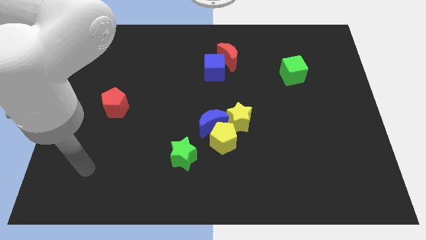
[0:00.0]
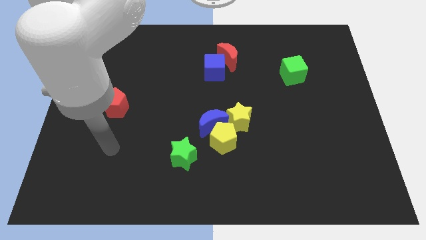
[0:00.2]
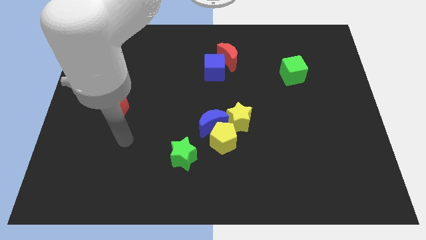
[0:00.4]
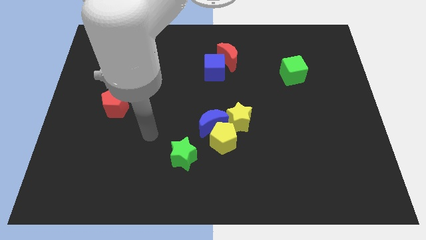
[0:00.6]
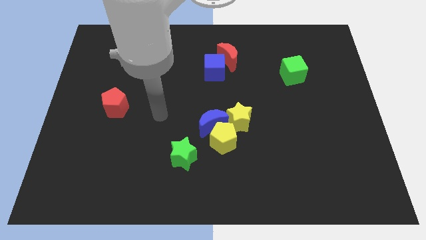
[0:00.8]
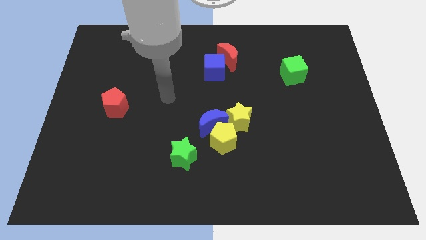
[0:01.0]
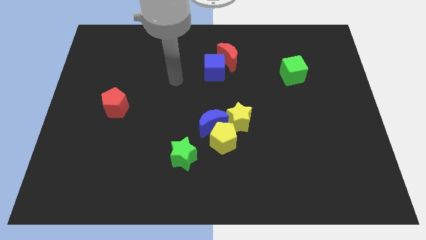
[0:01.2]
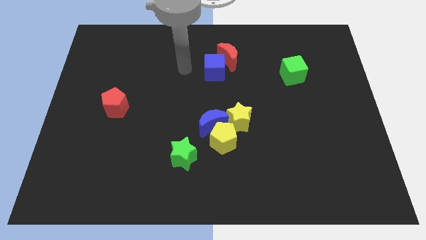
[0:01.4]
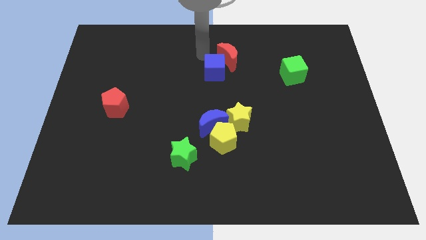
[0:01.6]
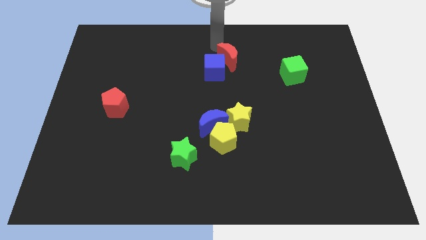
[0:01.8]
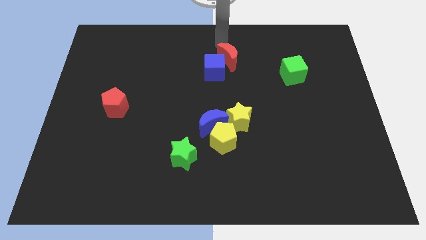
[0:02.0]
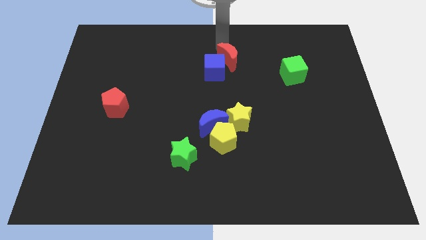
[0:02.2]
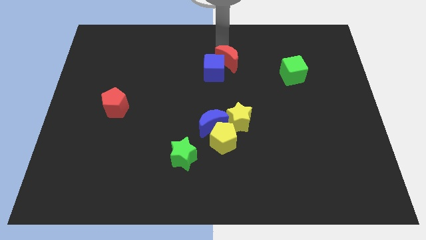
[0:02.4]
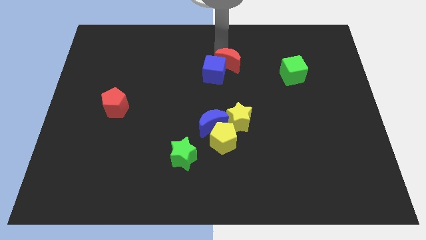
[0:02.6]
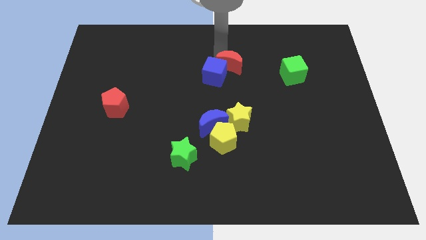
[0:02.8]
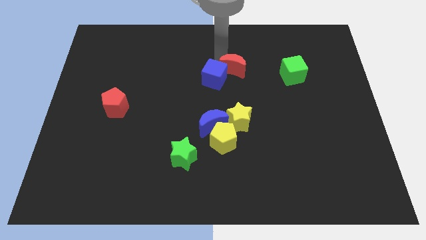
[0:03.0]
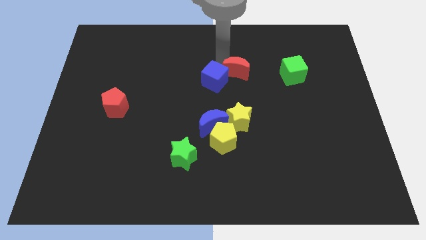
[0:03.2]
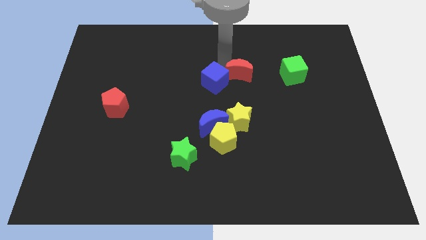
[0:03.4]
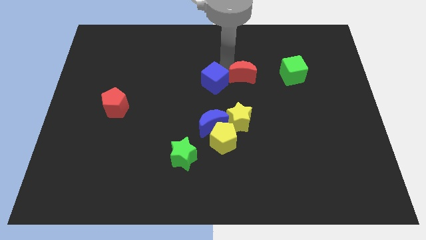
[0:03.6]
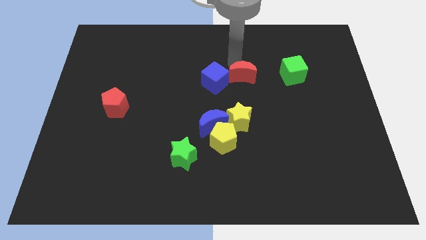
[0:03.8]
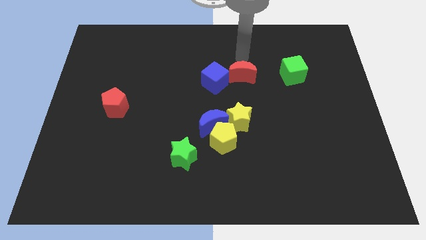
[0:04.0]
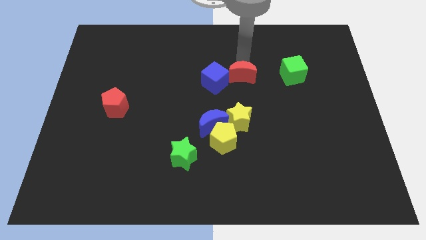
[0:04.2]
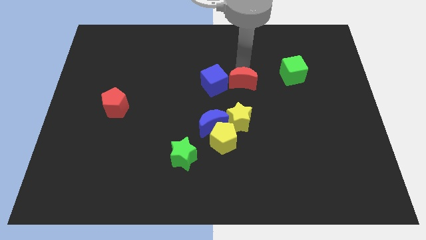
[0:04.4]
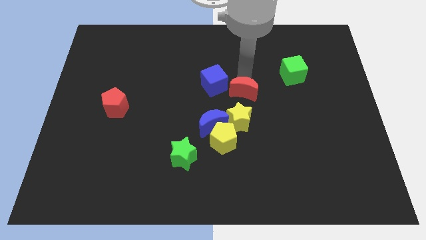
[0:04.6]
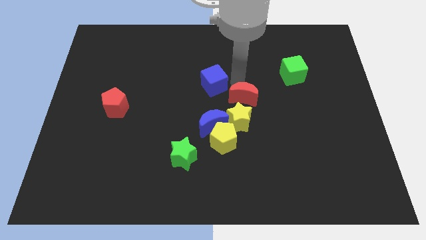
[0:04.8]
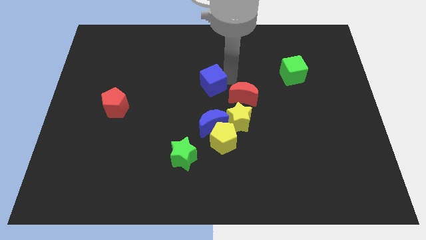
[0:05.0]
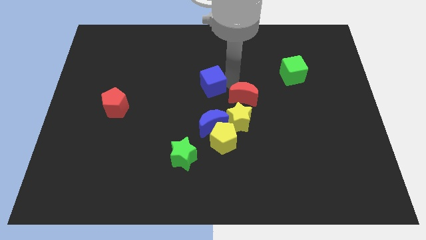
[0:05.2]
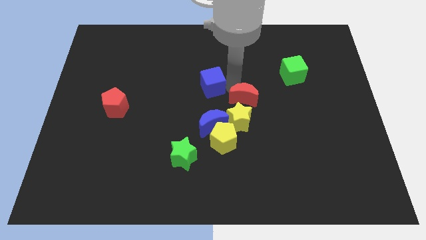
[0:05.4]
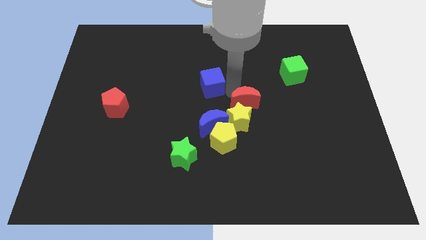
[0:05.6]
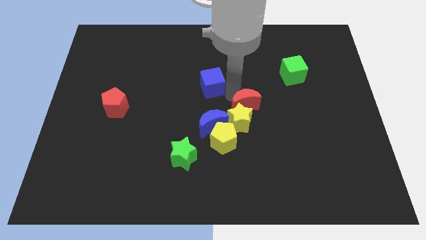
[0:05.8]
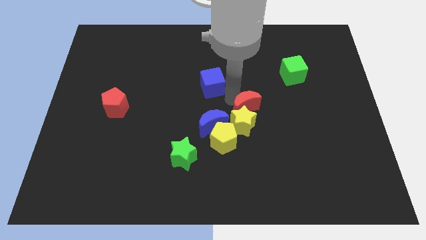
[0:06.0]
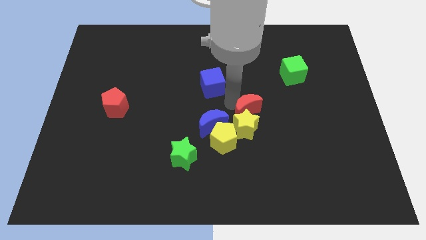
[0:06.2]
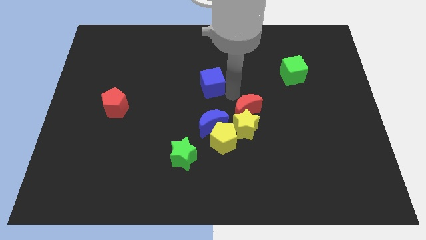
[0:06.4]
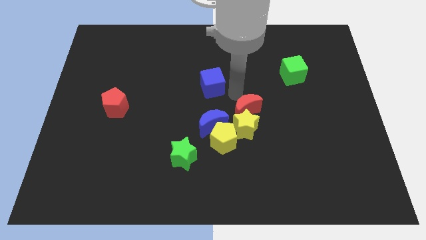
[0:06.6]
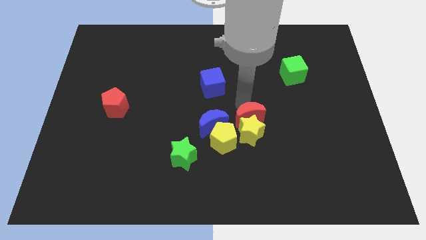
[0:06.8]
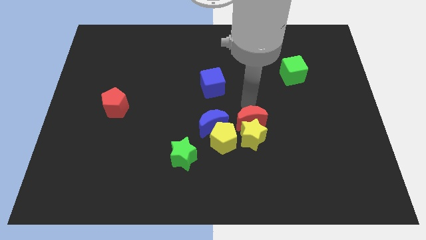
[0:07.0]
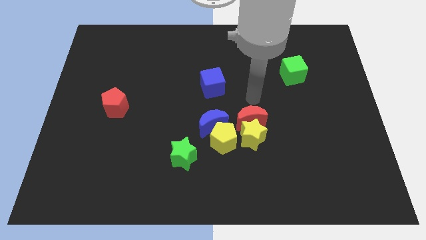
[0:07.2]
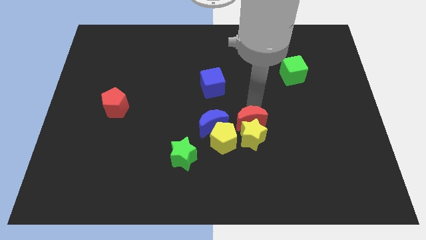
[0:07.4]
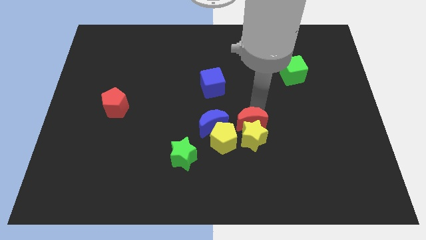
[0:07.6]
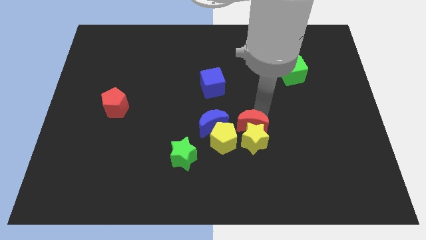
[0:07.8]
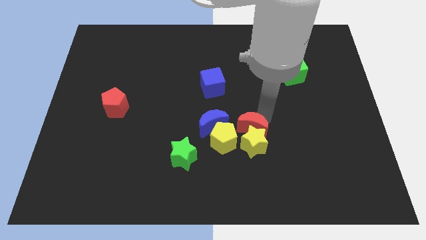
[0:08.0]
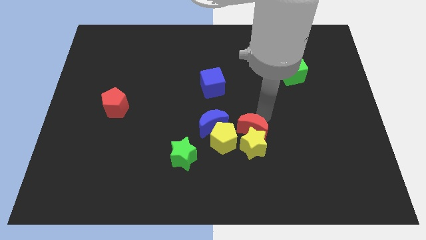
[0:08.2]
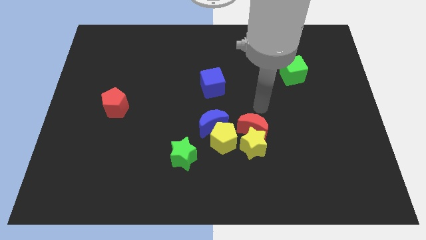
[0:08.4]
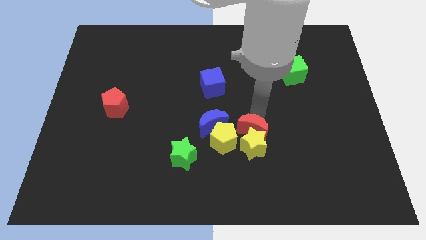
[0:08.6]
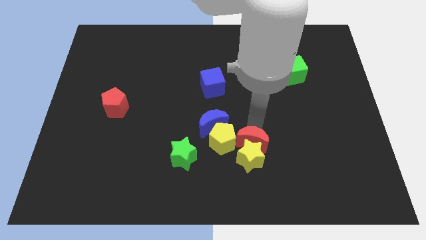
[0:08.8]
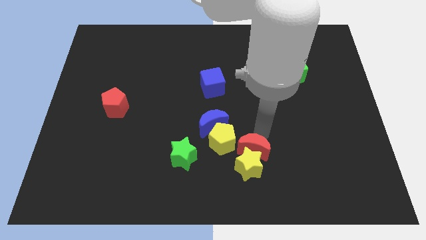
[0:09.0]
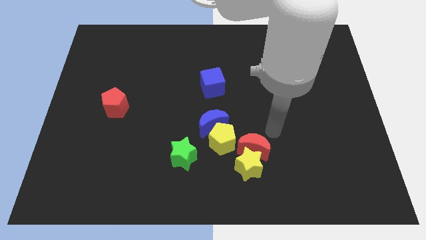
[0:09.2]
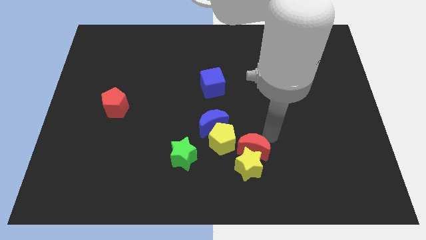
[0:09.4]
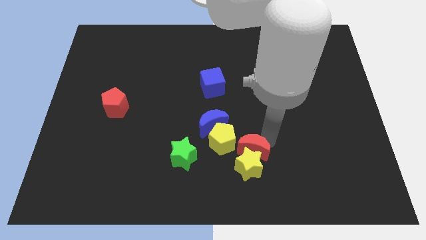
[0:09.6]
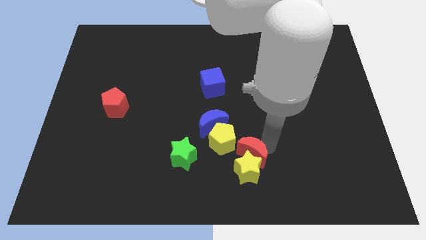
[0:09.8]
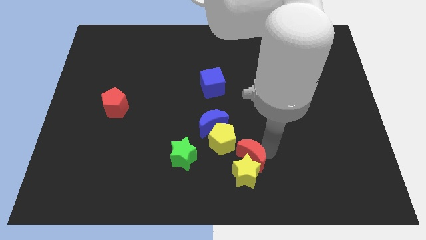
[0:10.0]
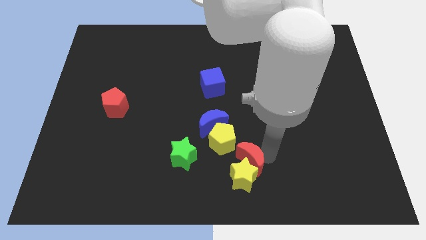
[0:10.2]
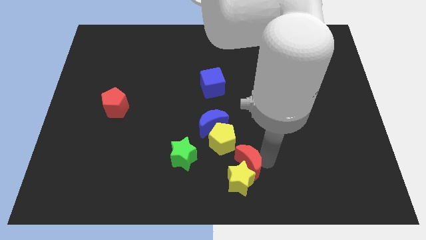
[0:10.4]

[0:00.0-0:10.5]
move the red moon to the bottom side

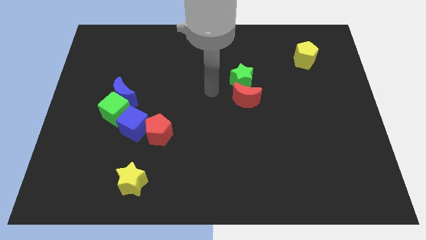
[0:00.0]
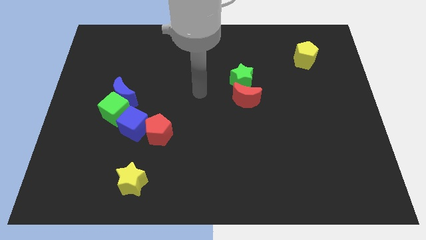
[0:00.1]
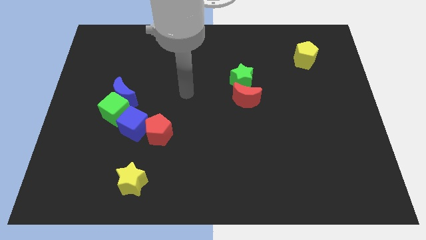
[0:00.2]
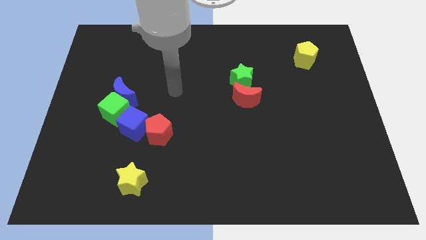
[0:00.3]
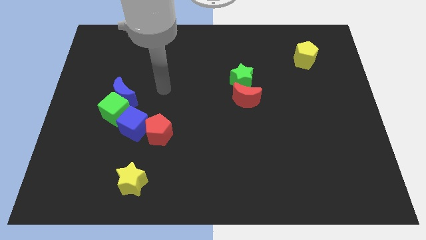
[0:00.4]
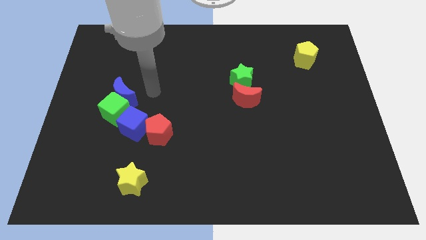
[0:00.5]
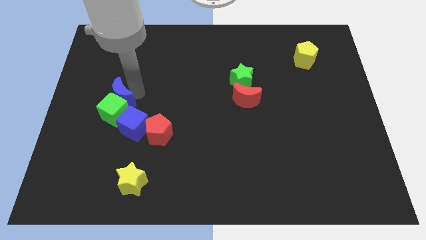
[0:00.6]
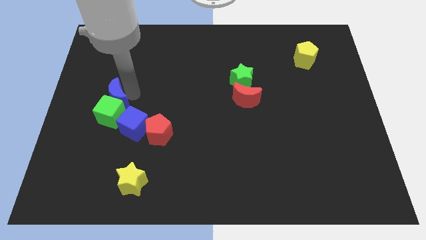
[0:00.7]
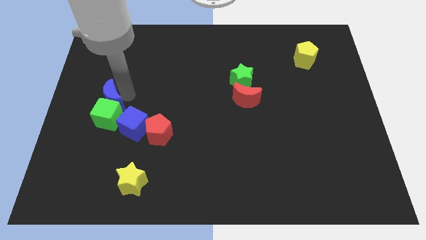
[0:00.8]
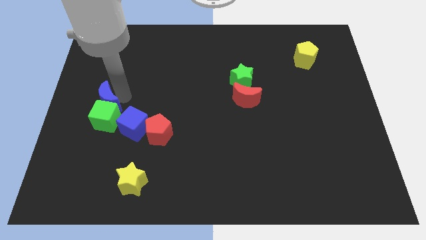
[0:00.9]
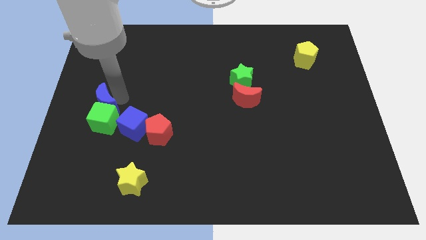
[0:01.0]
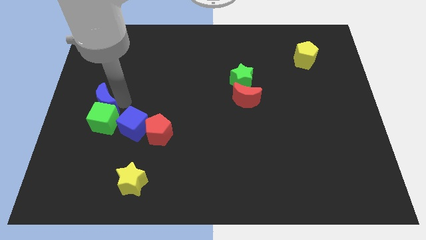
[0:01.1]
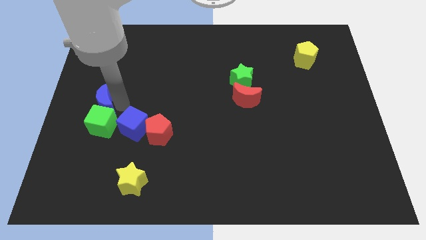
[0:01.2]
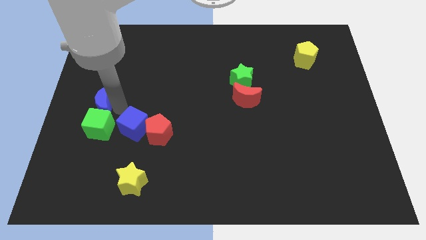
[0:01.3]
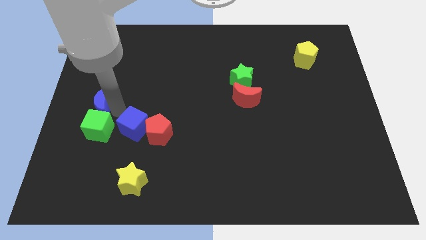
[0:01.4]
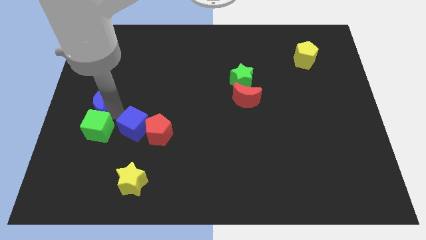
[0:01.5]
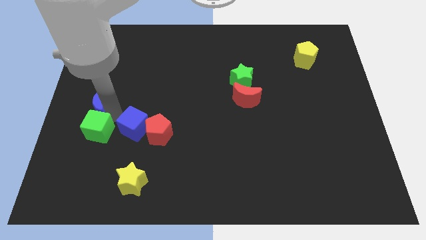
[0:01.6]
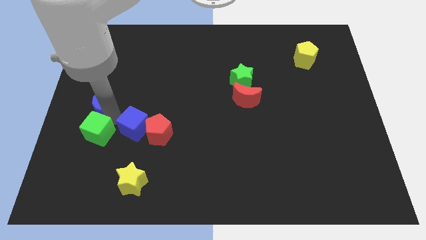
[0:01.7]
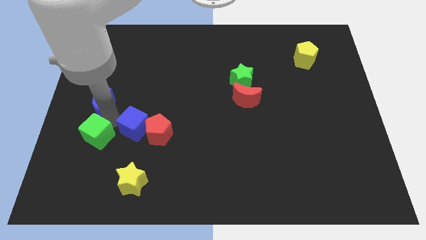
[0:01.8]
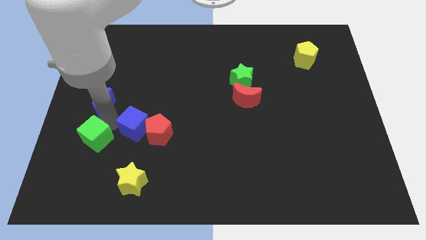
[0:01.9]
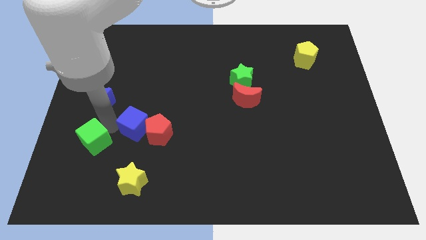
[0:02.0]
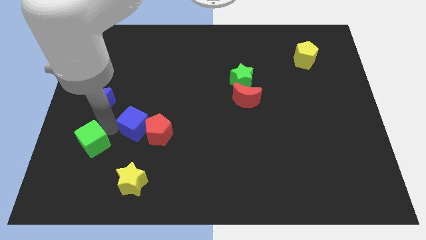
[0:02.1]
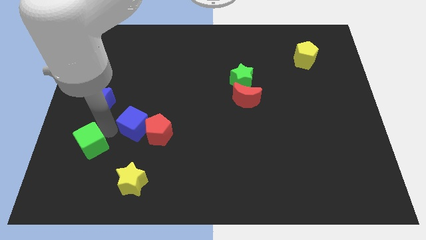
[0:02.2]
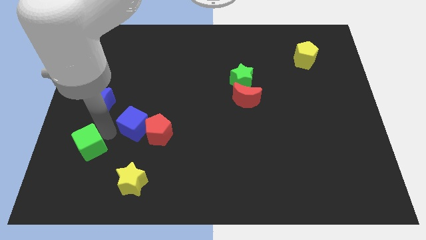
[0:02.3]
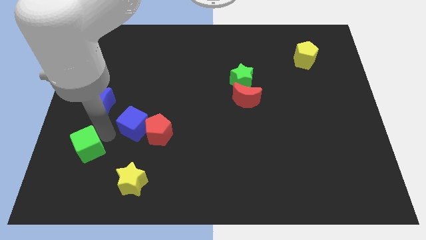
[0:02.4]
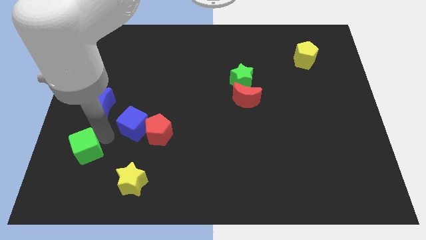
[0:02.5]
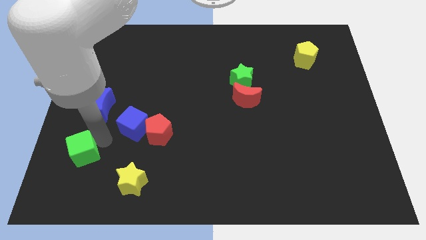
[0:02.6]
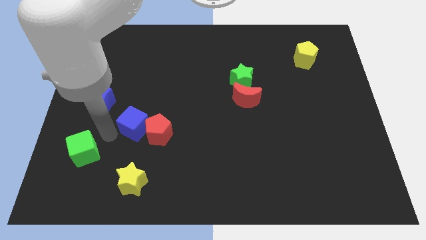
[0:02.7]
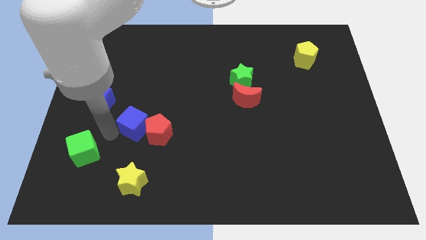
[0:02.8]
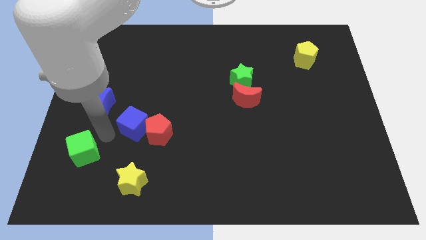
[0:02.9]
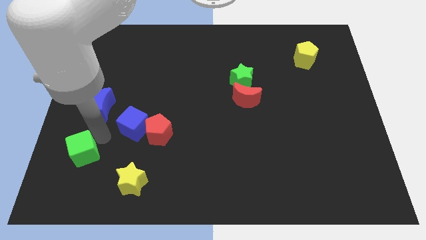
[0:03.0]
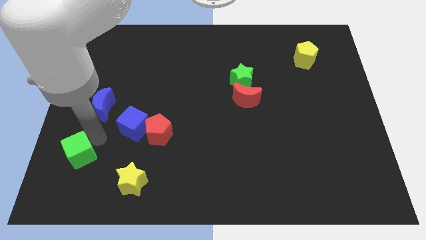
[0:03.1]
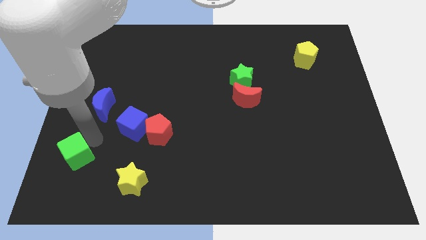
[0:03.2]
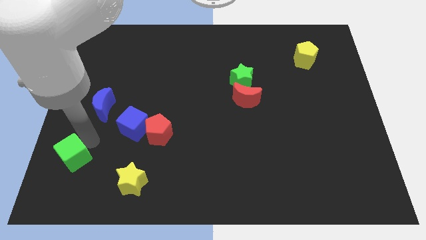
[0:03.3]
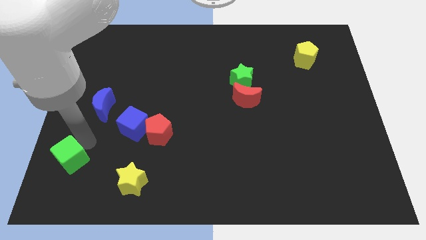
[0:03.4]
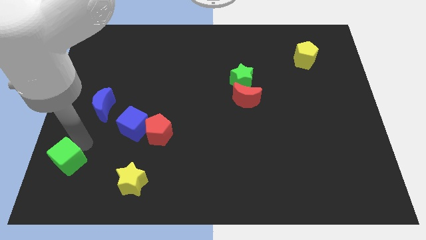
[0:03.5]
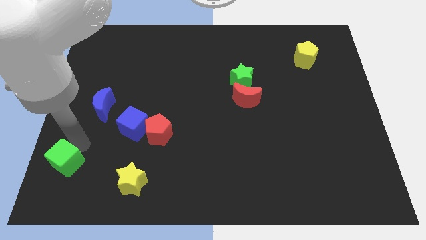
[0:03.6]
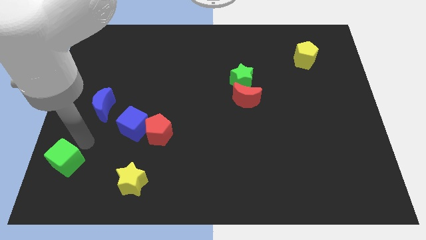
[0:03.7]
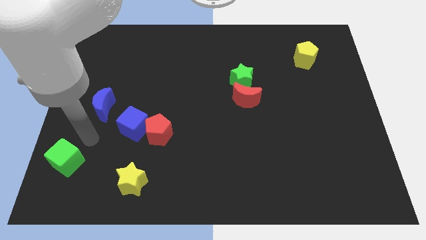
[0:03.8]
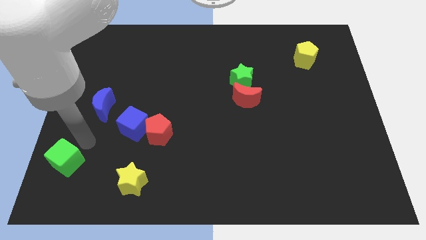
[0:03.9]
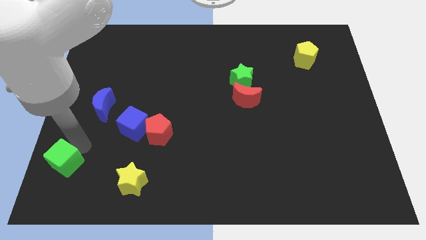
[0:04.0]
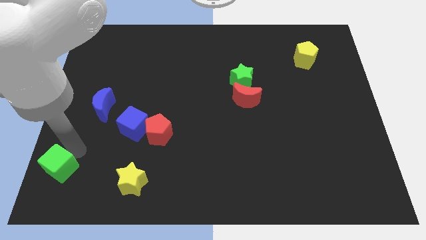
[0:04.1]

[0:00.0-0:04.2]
push the green cube to the lower left corner
